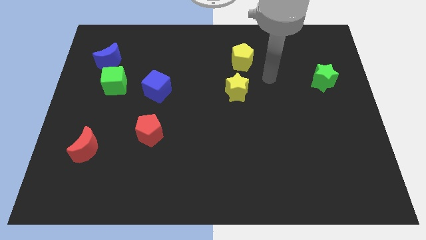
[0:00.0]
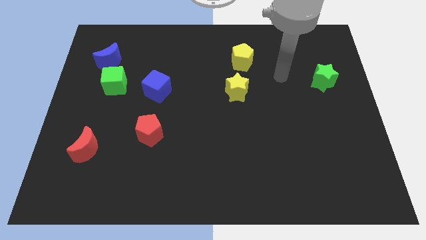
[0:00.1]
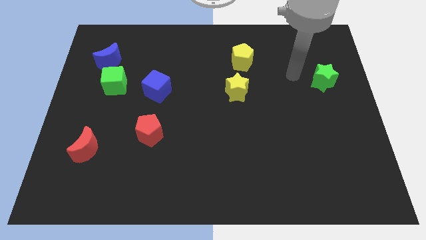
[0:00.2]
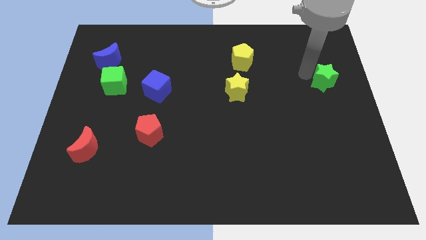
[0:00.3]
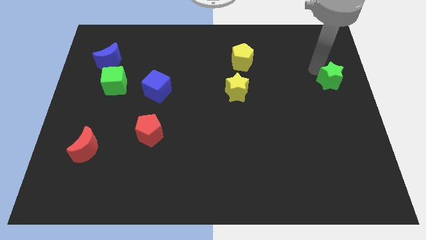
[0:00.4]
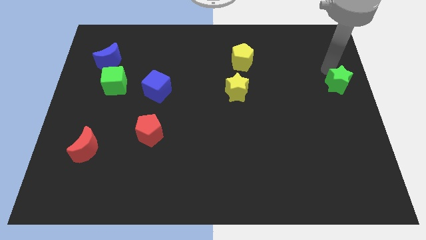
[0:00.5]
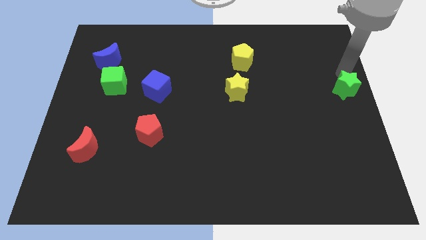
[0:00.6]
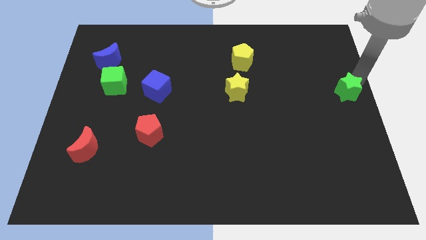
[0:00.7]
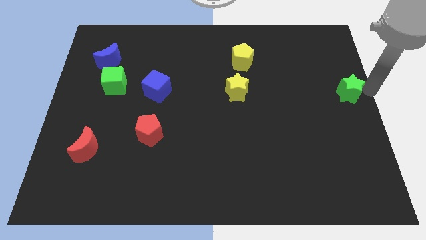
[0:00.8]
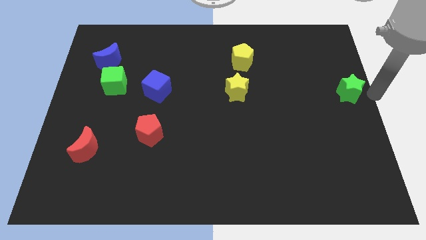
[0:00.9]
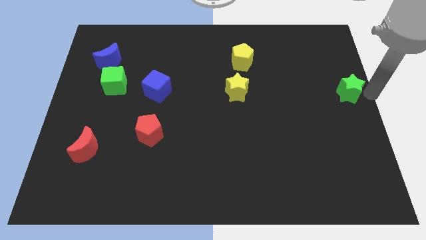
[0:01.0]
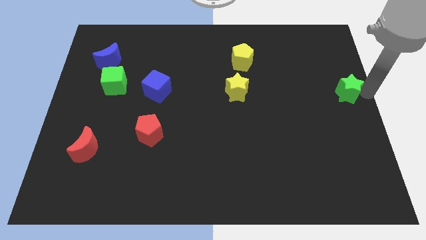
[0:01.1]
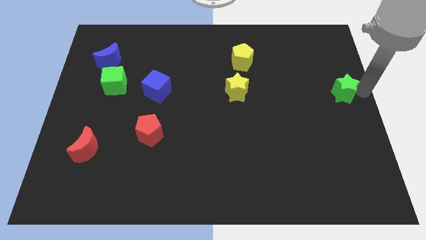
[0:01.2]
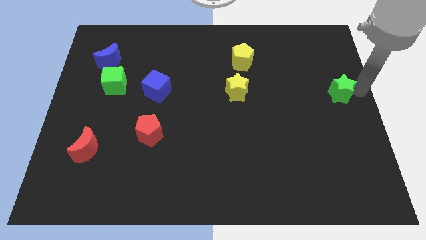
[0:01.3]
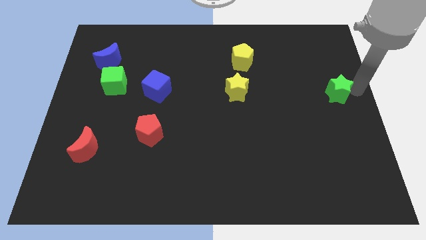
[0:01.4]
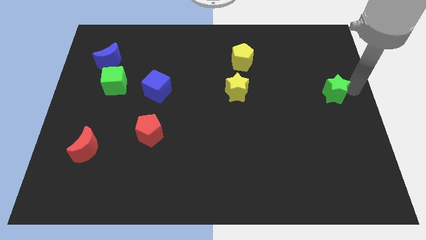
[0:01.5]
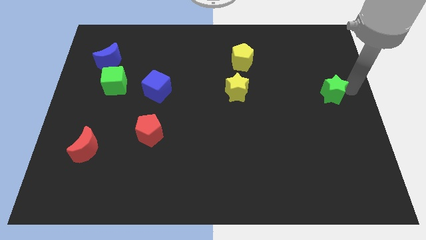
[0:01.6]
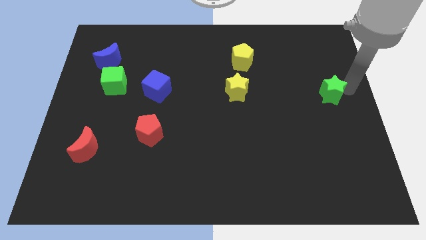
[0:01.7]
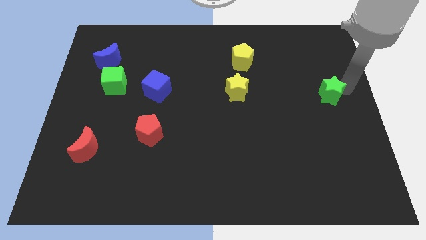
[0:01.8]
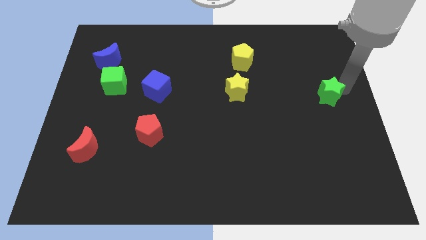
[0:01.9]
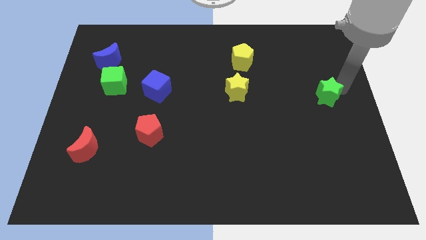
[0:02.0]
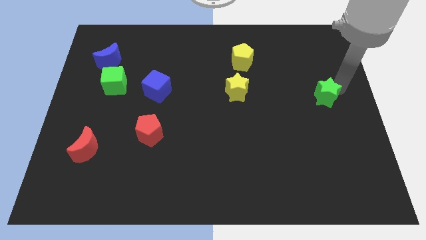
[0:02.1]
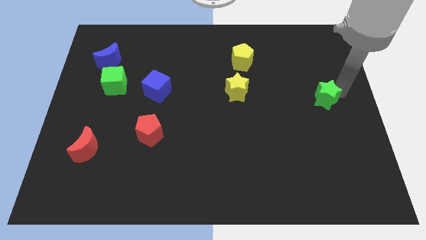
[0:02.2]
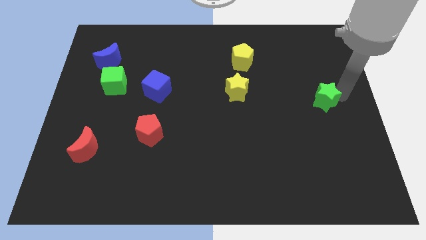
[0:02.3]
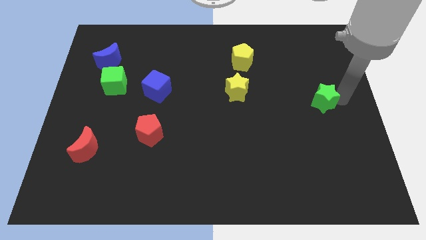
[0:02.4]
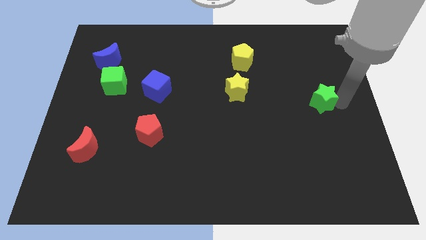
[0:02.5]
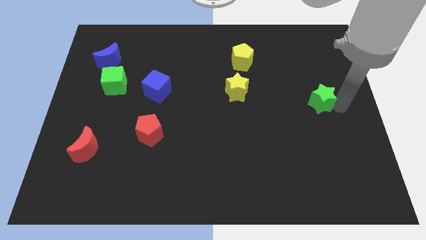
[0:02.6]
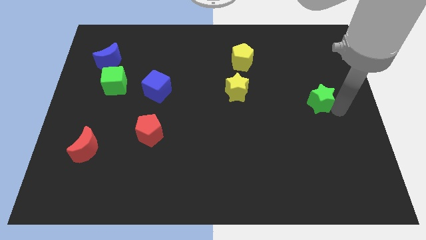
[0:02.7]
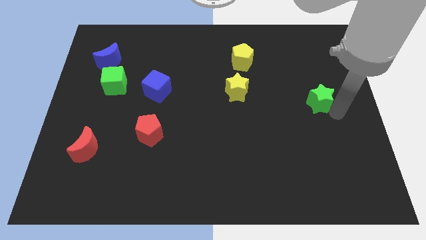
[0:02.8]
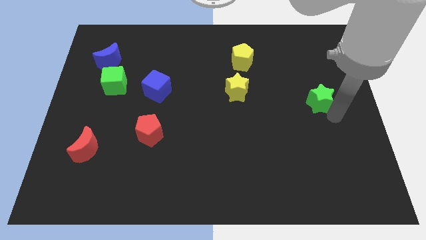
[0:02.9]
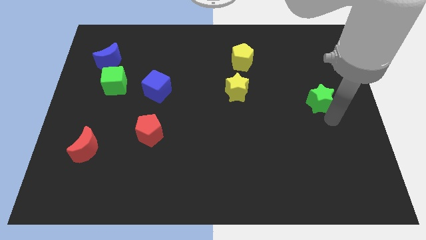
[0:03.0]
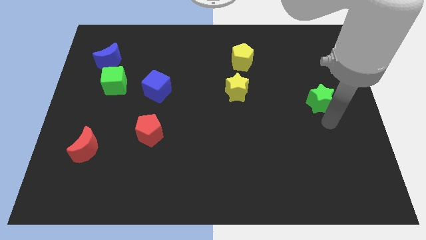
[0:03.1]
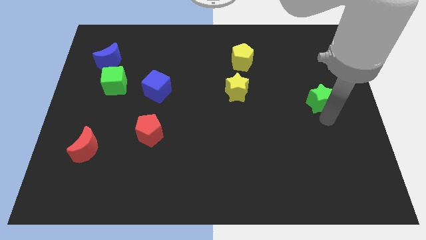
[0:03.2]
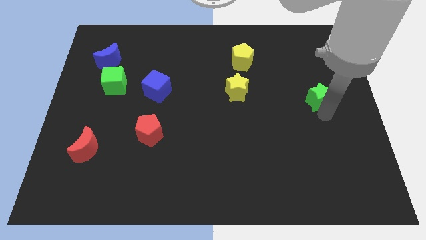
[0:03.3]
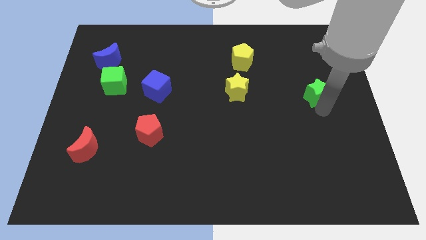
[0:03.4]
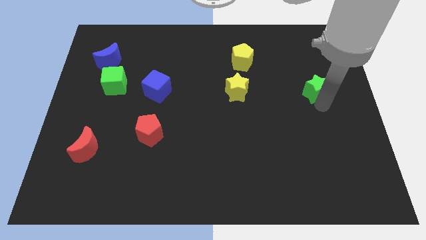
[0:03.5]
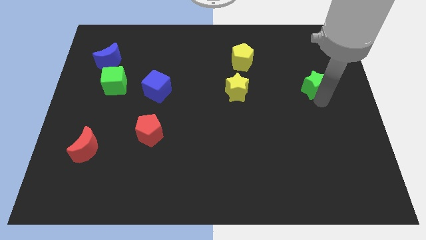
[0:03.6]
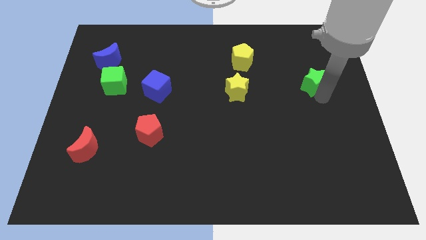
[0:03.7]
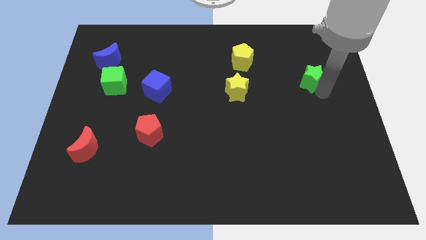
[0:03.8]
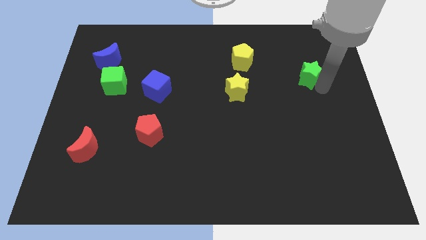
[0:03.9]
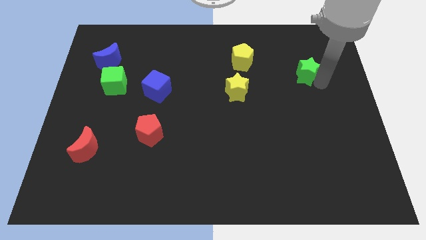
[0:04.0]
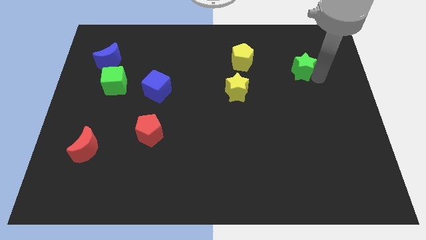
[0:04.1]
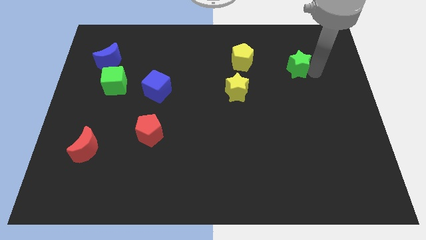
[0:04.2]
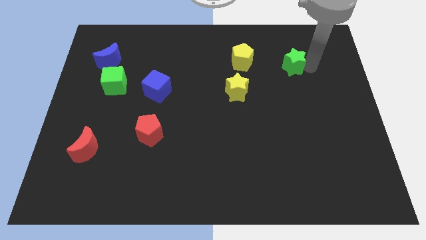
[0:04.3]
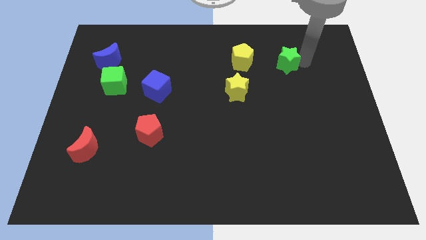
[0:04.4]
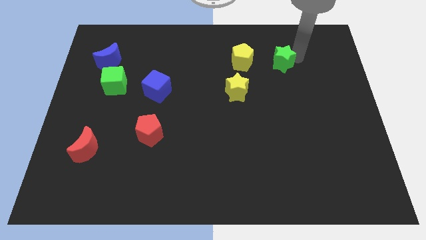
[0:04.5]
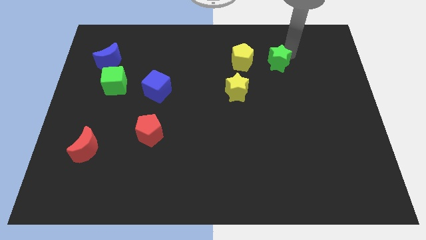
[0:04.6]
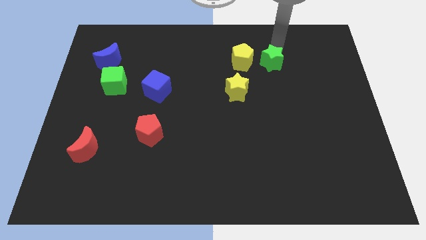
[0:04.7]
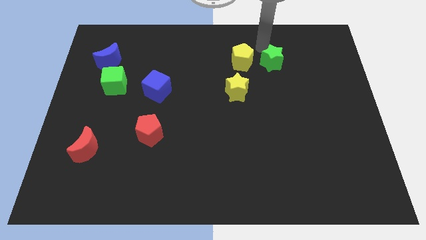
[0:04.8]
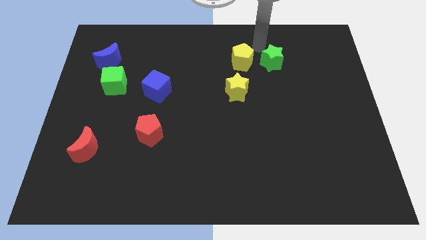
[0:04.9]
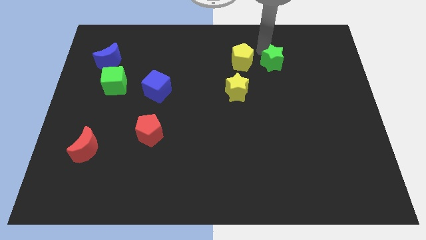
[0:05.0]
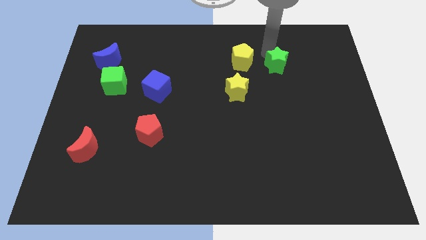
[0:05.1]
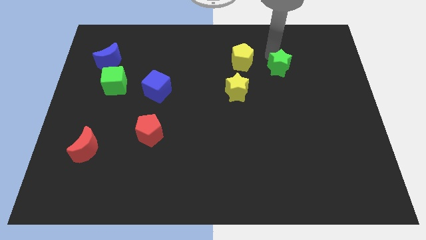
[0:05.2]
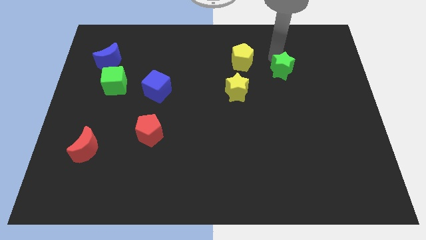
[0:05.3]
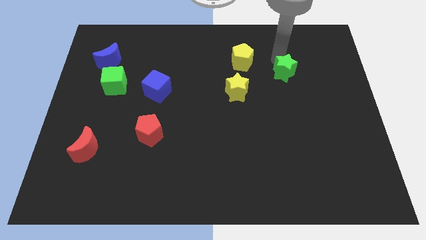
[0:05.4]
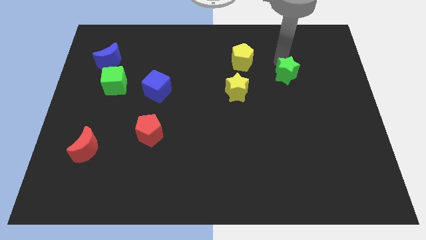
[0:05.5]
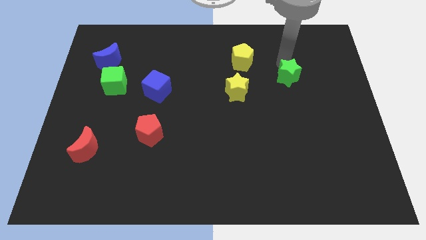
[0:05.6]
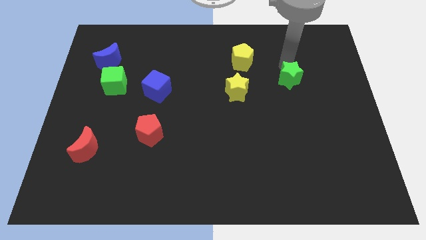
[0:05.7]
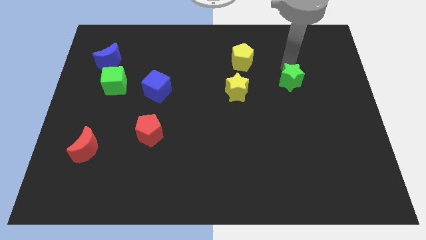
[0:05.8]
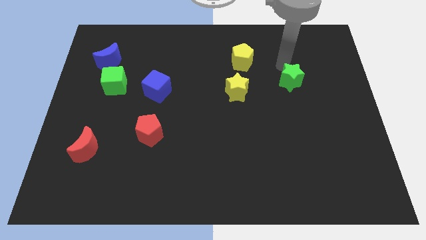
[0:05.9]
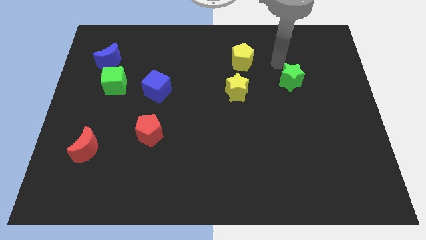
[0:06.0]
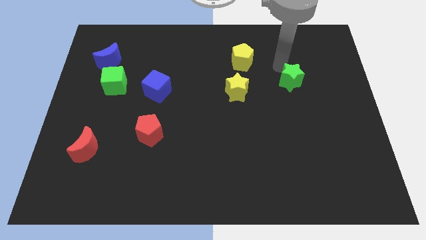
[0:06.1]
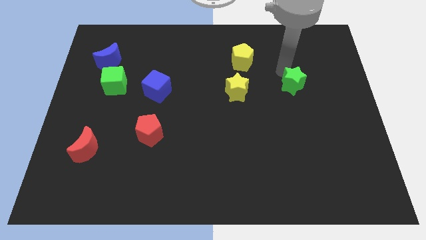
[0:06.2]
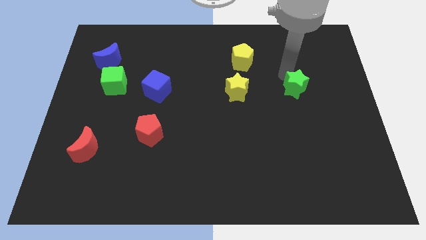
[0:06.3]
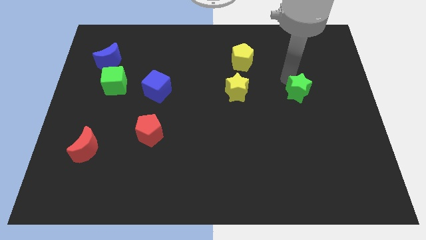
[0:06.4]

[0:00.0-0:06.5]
slightly push the green star downwards and then left

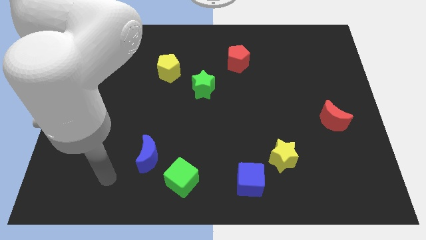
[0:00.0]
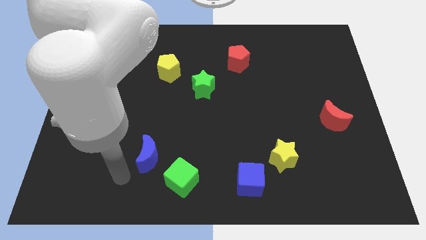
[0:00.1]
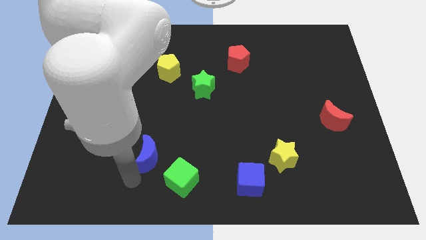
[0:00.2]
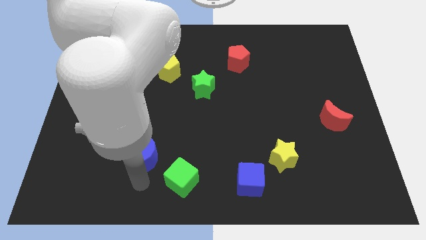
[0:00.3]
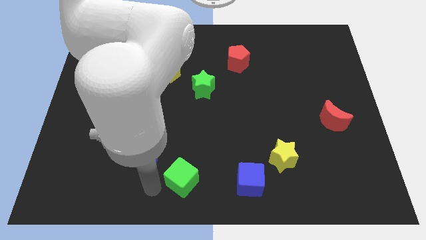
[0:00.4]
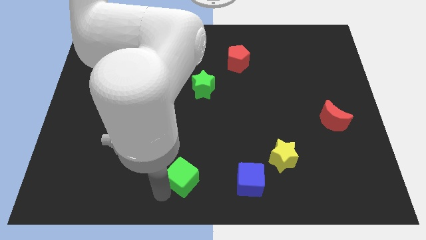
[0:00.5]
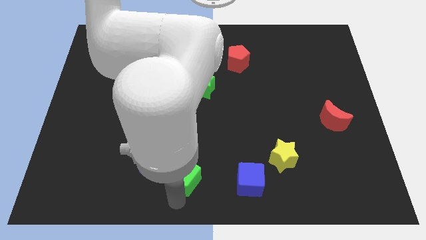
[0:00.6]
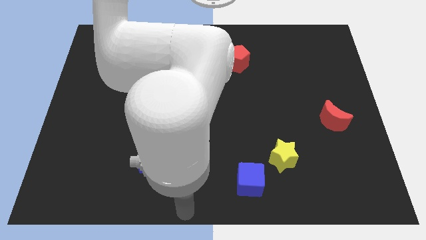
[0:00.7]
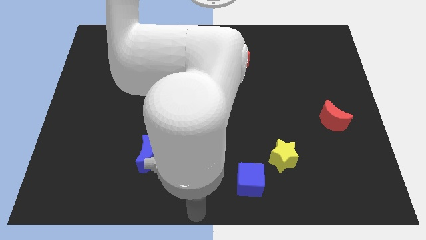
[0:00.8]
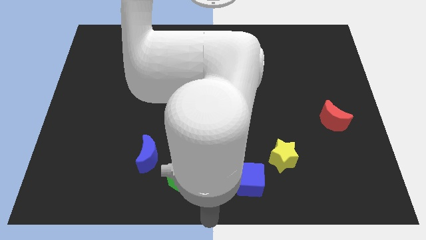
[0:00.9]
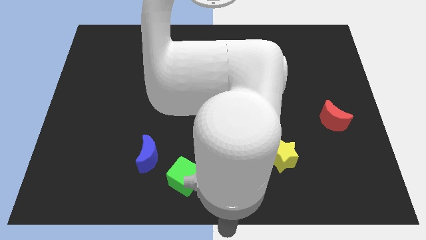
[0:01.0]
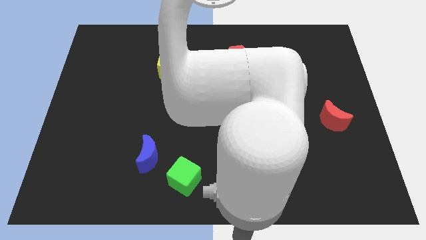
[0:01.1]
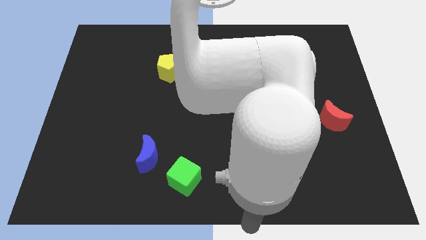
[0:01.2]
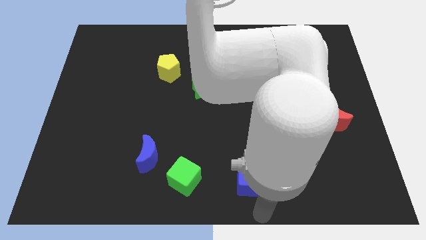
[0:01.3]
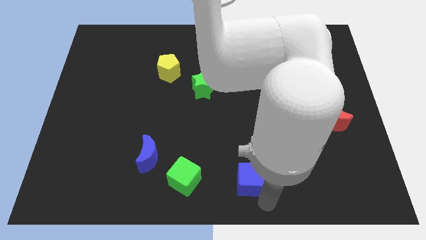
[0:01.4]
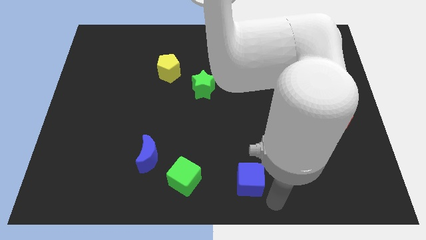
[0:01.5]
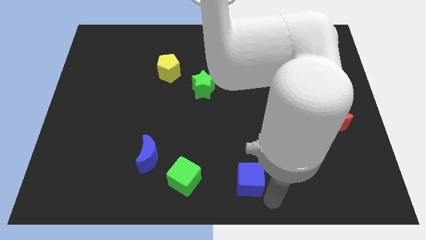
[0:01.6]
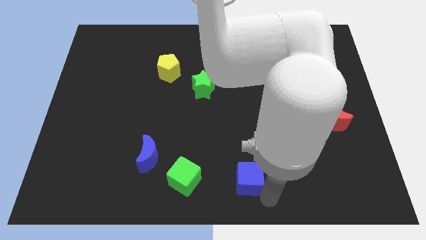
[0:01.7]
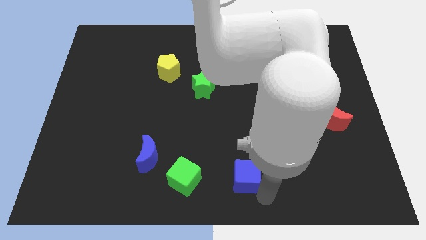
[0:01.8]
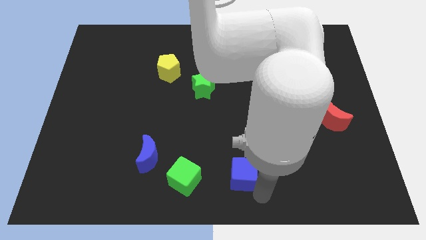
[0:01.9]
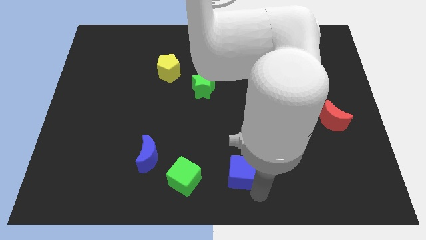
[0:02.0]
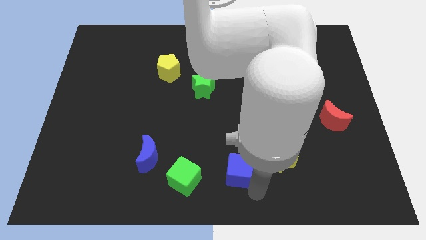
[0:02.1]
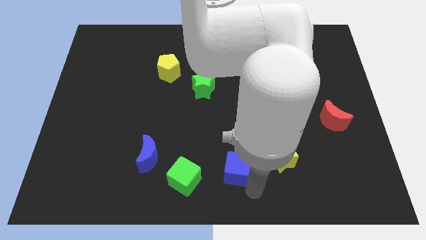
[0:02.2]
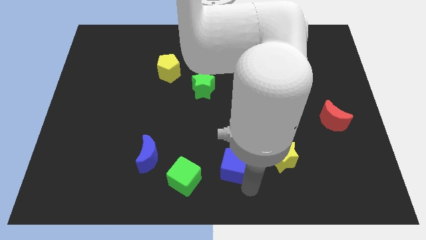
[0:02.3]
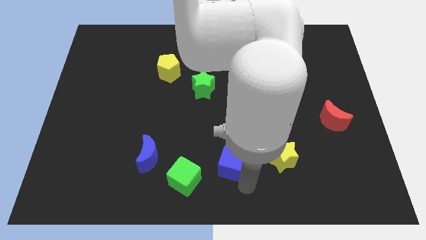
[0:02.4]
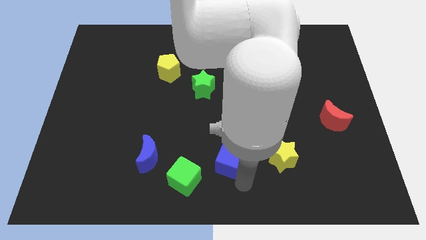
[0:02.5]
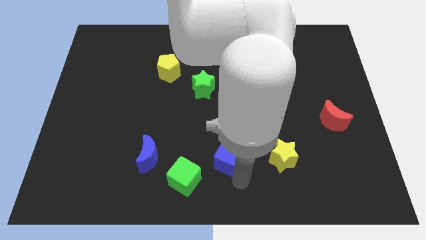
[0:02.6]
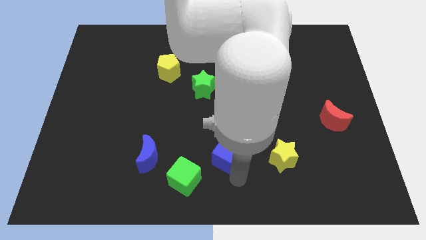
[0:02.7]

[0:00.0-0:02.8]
slightly push the blue cube upwards and then left
